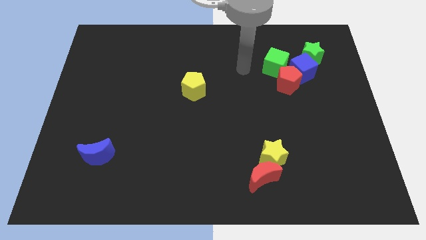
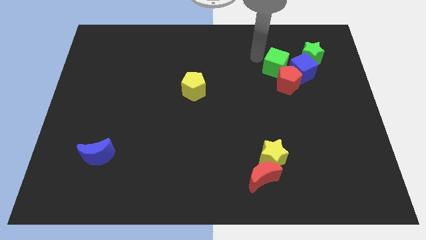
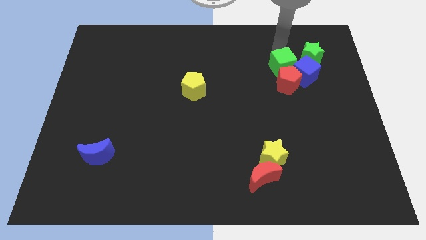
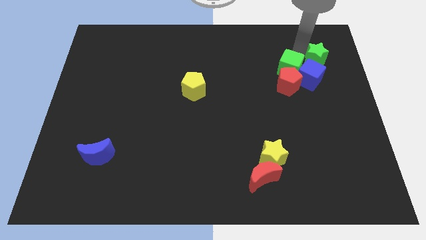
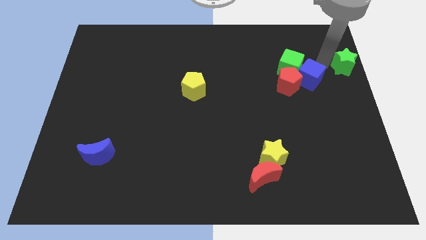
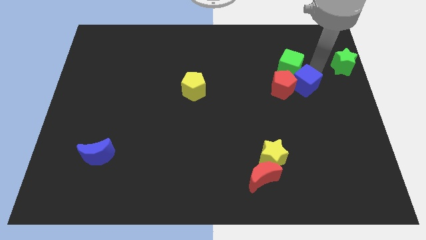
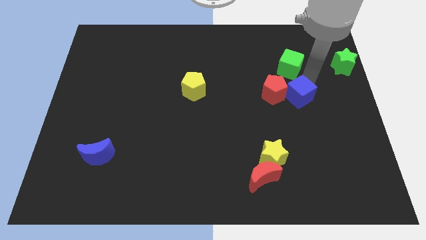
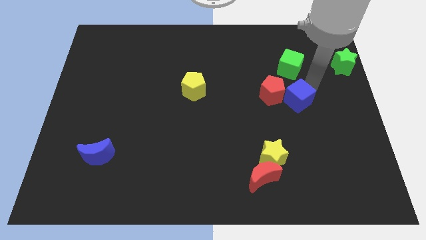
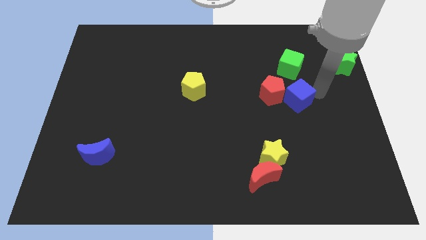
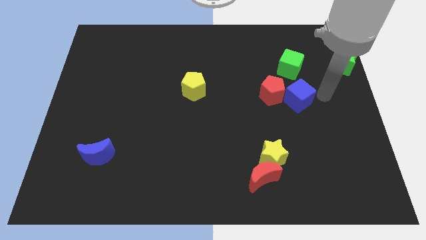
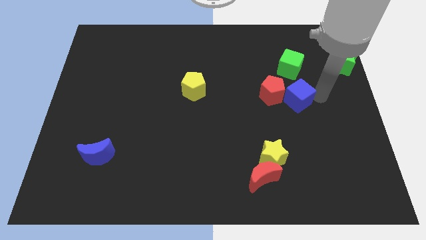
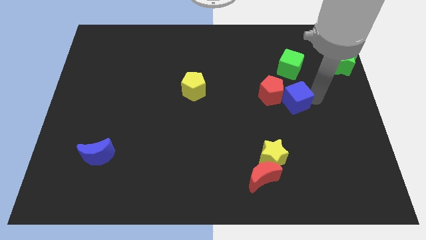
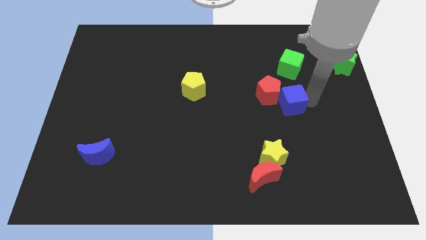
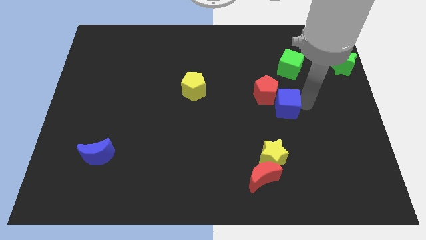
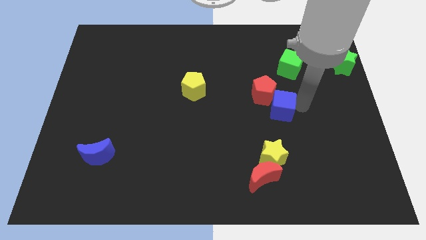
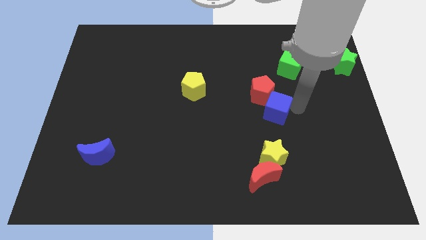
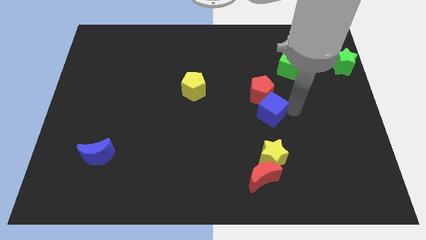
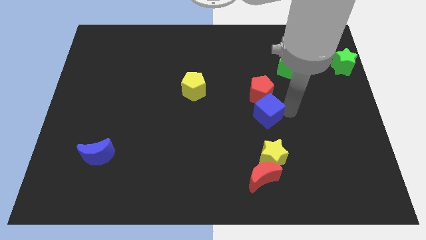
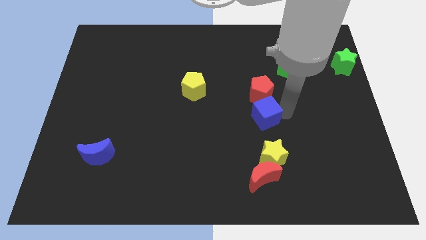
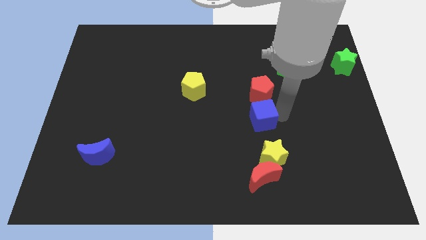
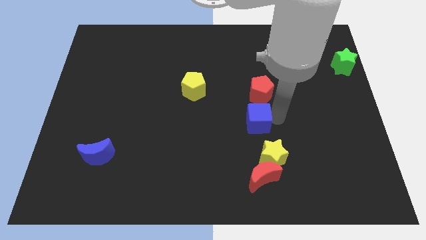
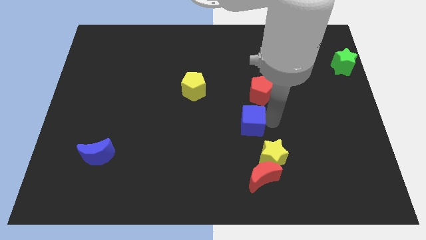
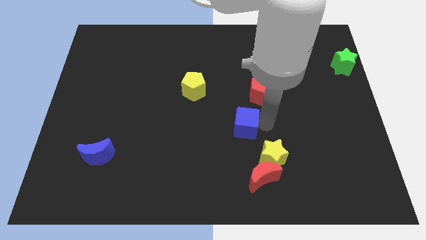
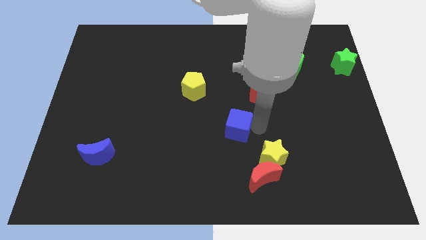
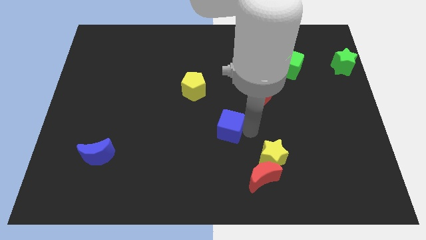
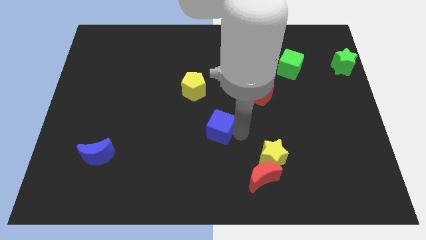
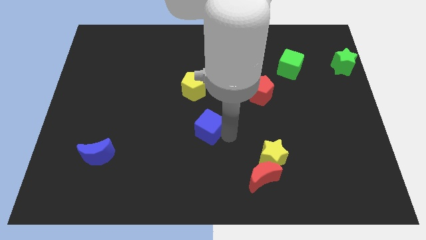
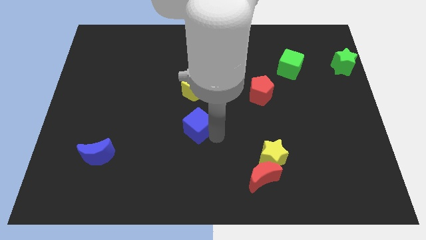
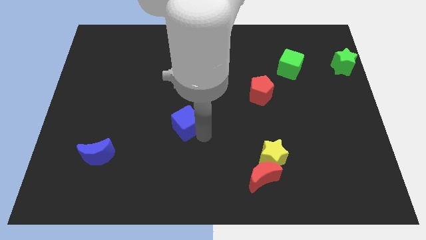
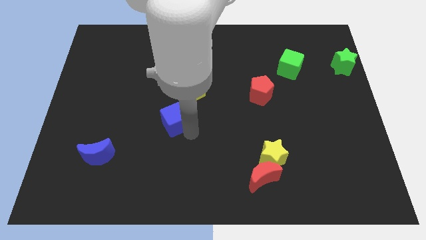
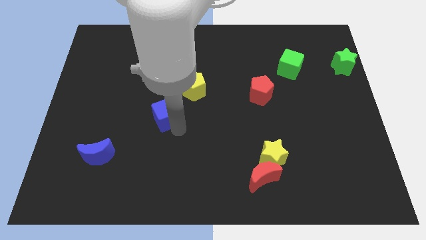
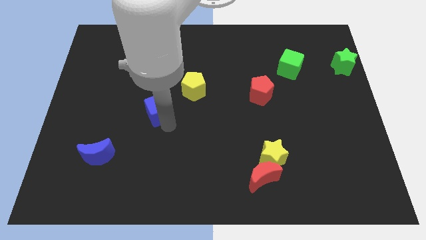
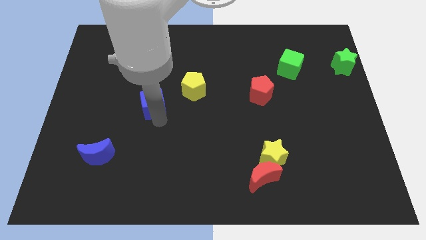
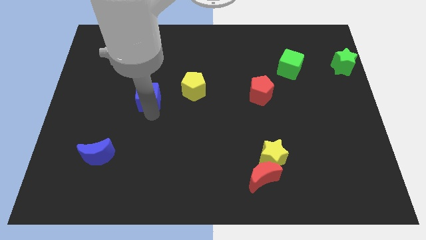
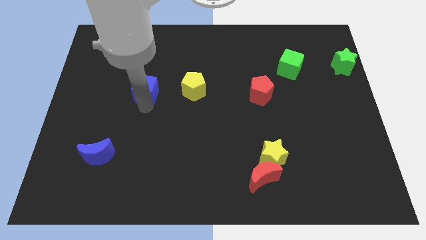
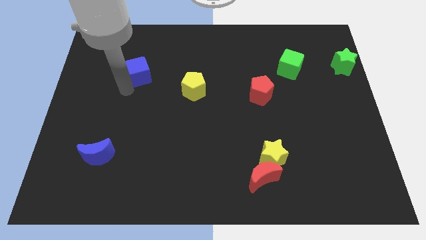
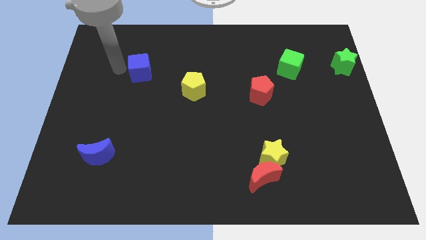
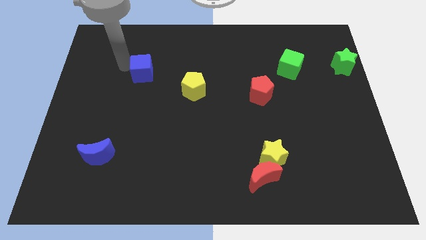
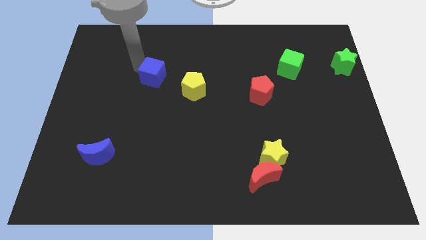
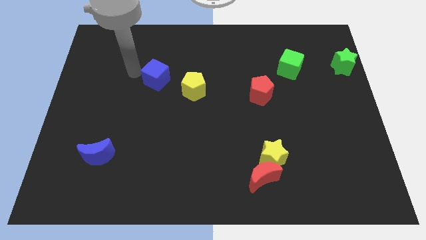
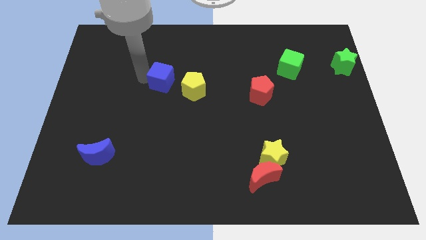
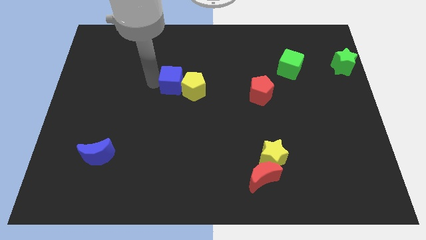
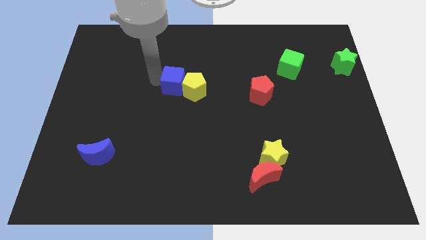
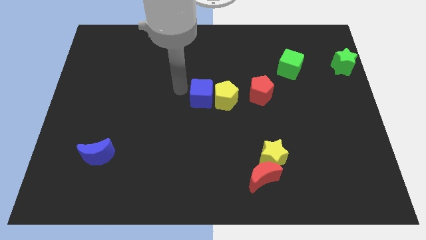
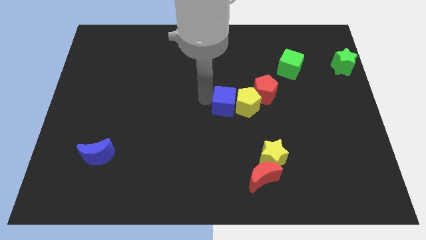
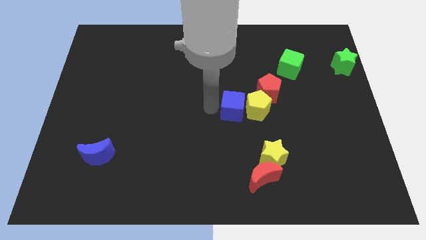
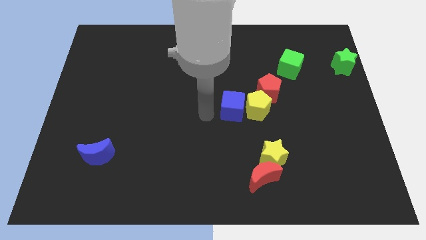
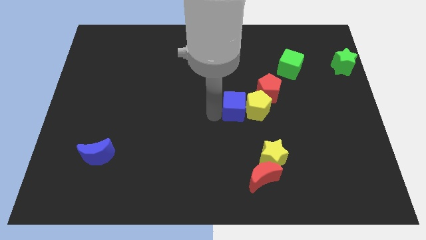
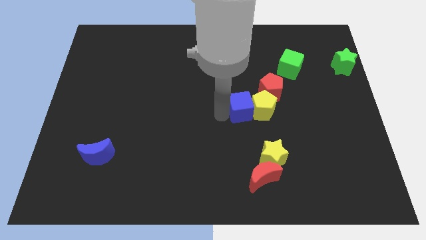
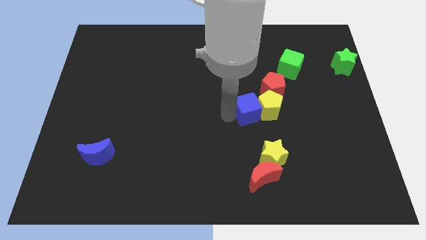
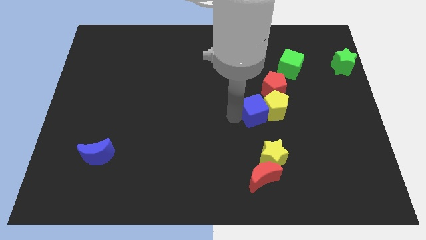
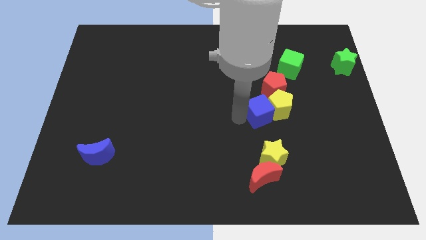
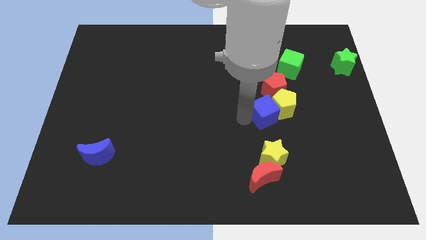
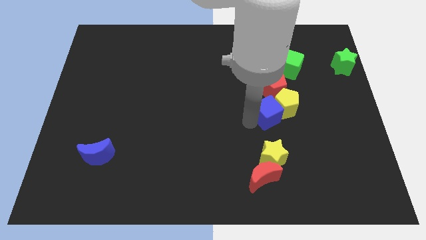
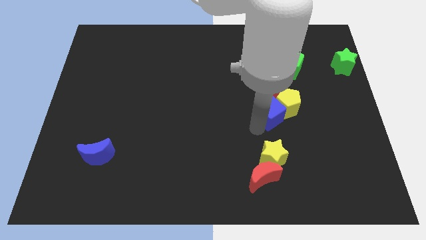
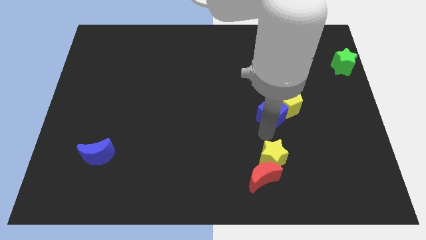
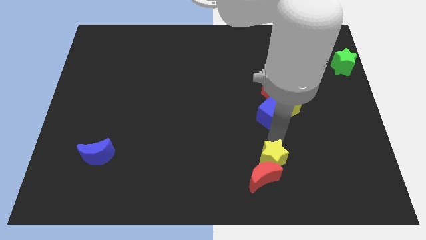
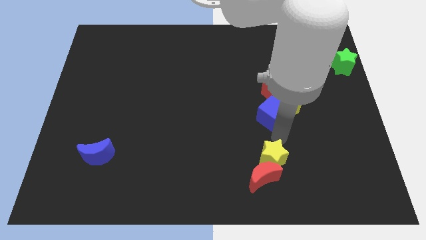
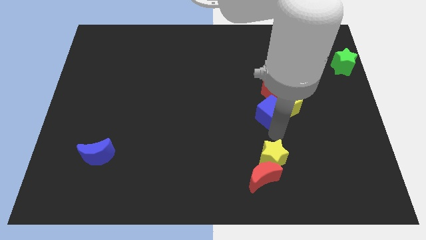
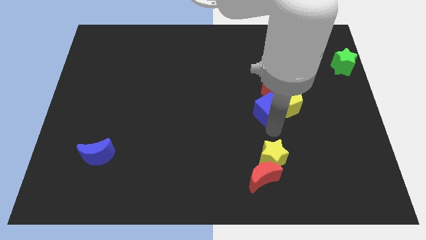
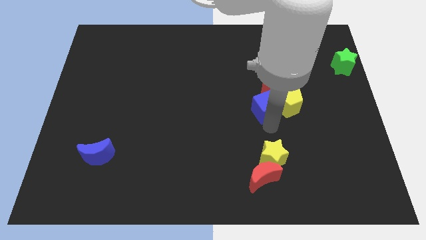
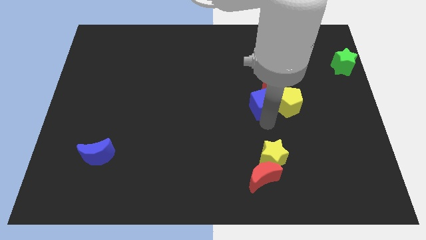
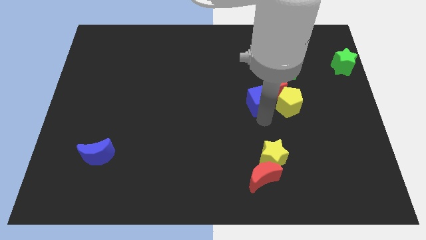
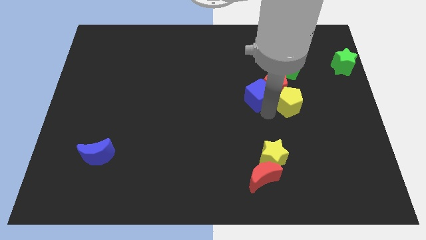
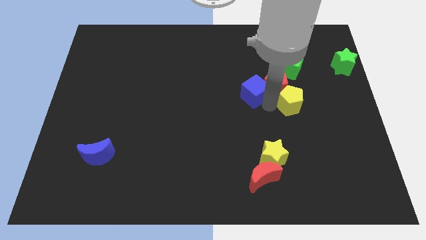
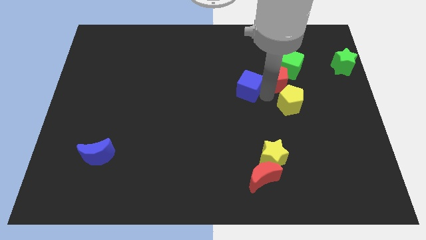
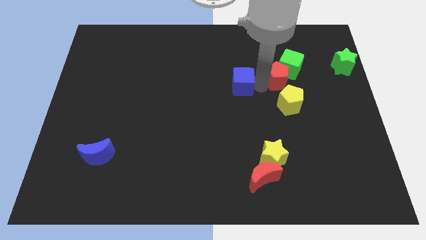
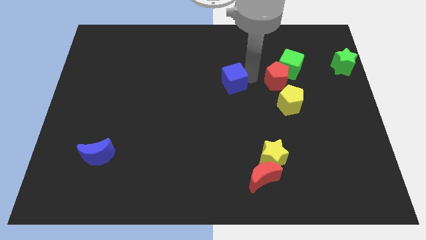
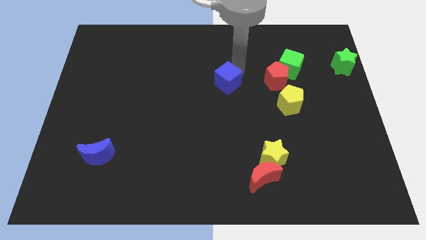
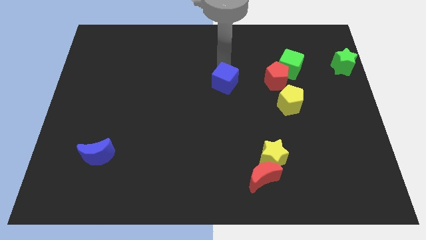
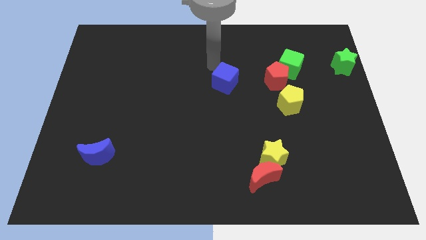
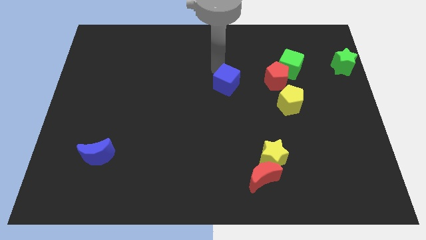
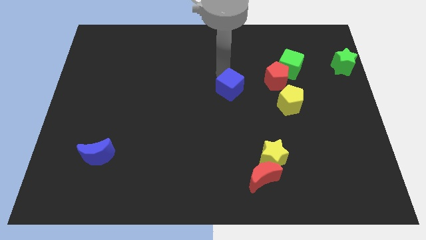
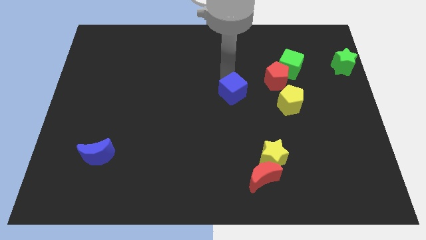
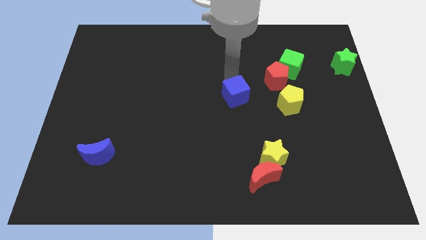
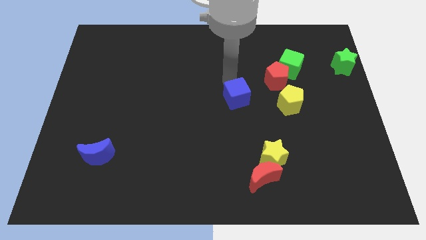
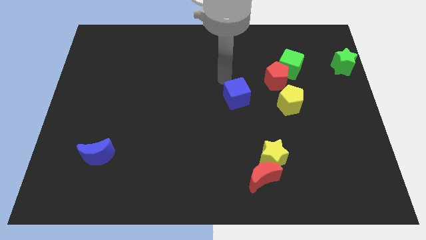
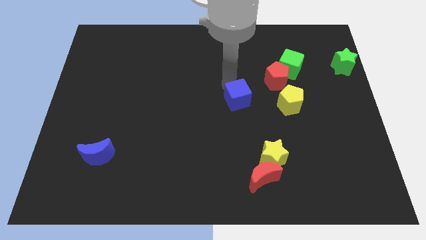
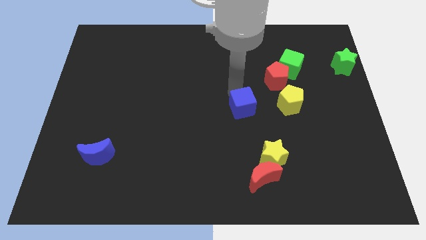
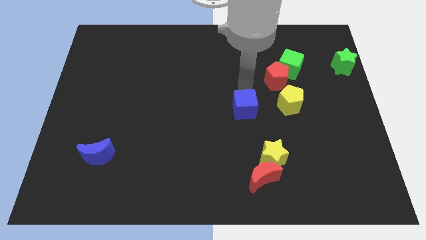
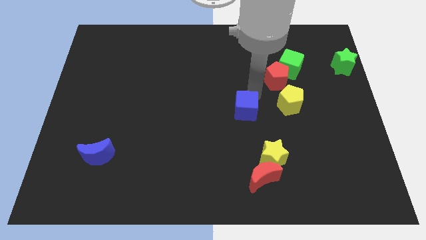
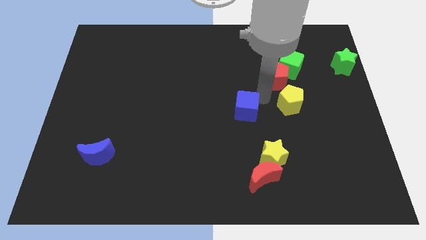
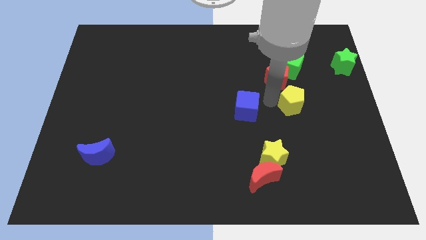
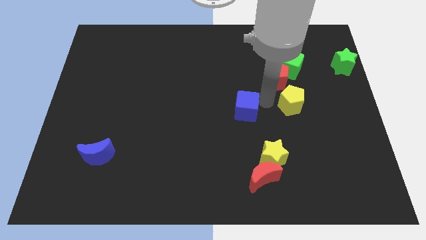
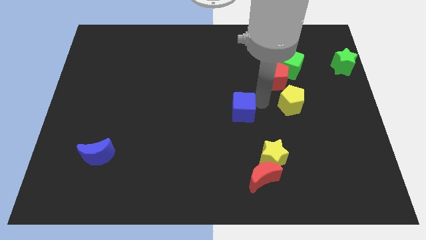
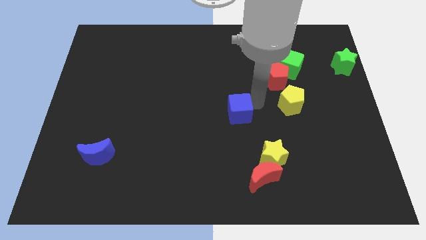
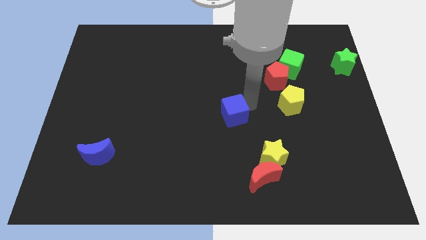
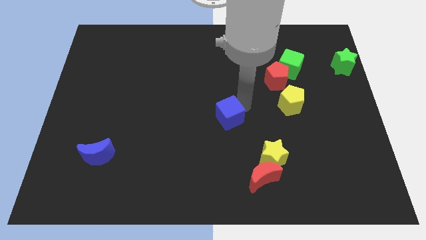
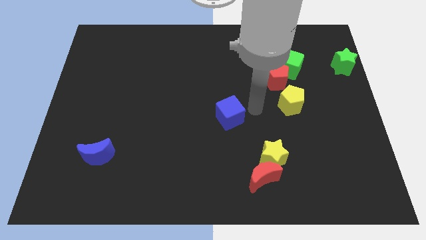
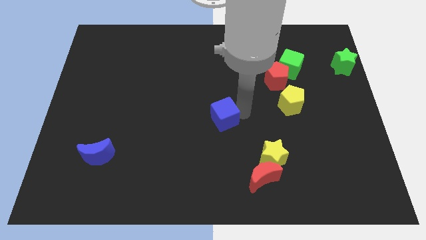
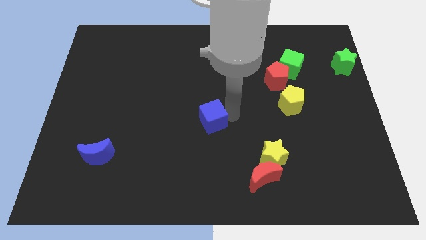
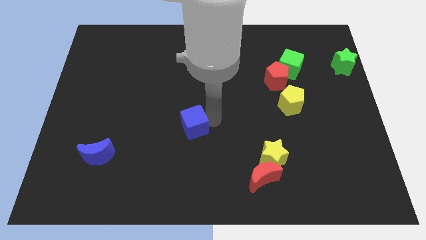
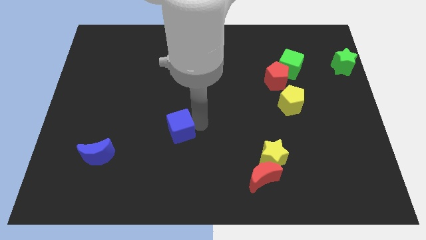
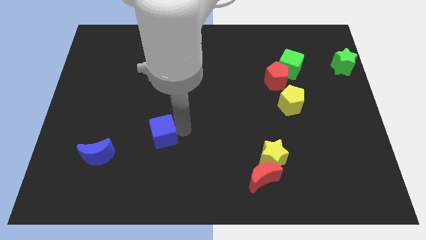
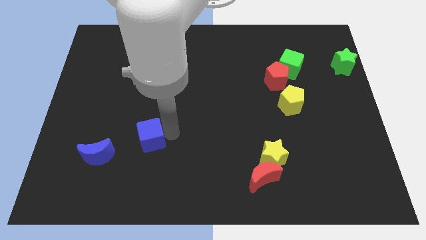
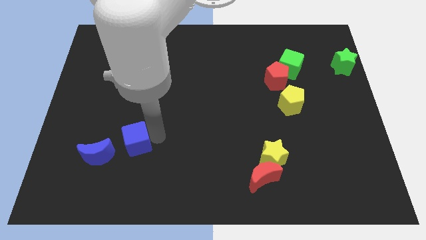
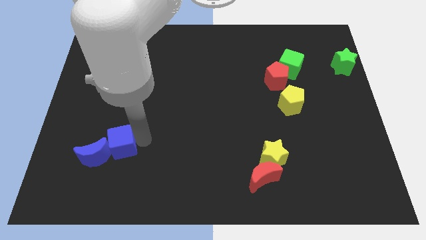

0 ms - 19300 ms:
push the blue cube to the blue moon
